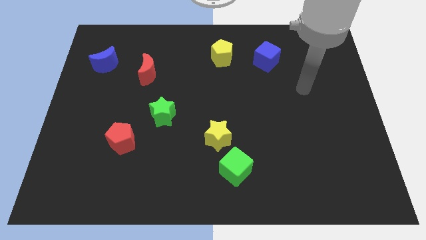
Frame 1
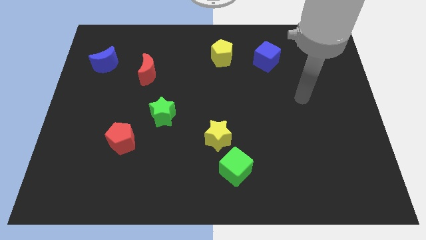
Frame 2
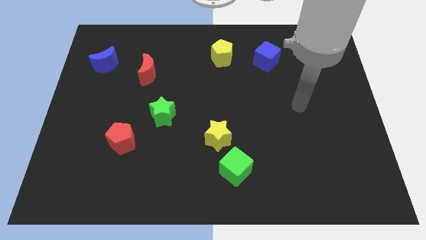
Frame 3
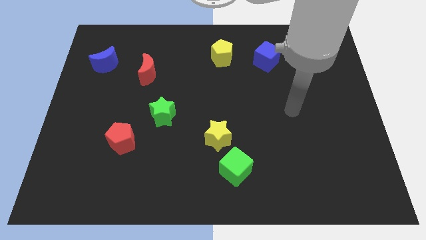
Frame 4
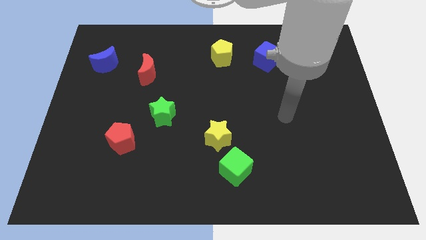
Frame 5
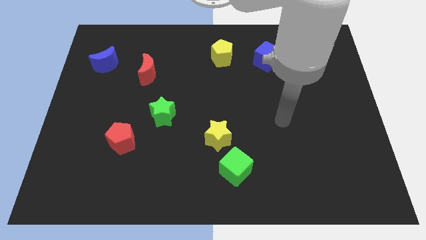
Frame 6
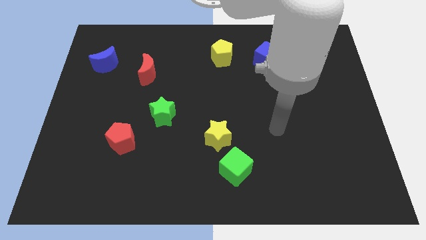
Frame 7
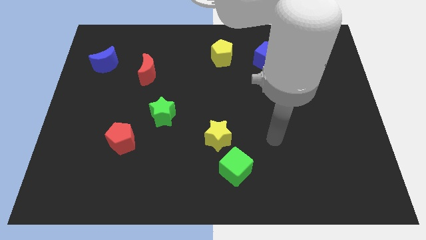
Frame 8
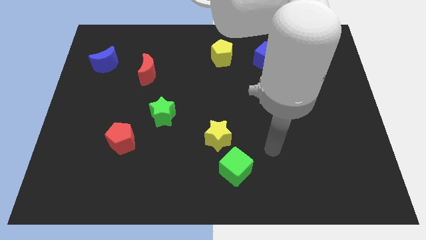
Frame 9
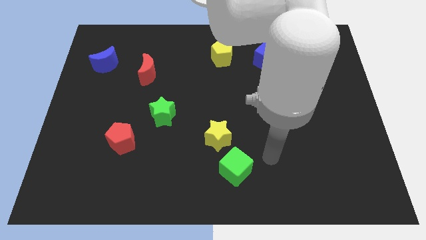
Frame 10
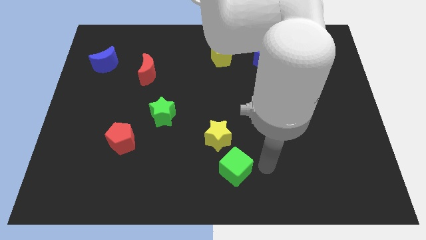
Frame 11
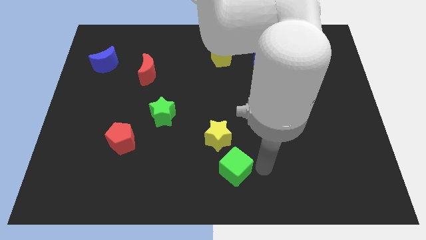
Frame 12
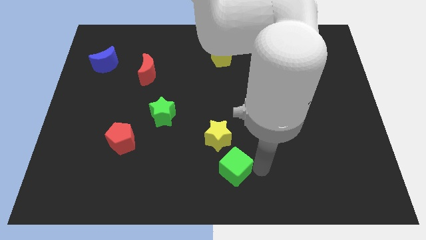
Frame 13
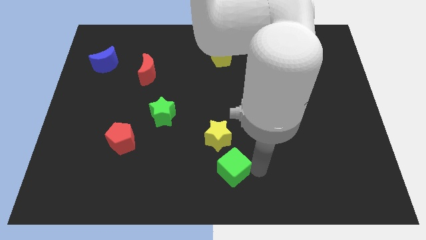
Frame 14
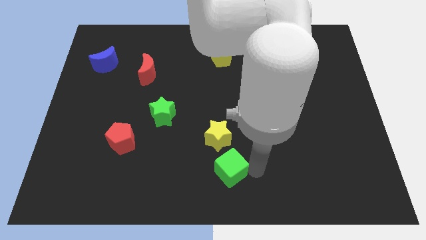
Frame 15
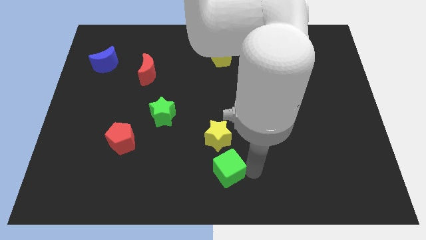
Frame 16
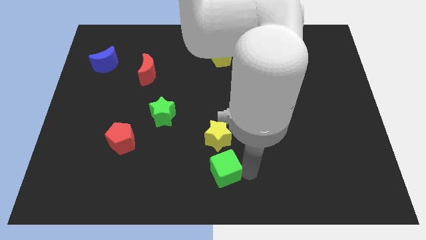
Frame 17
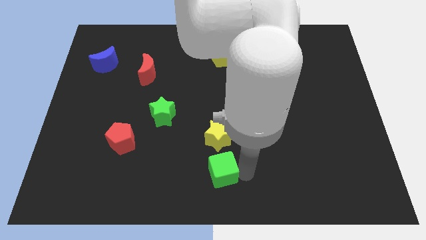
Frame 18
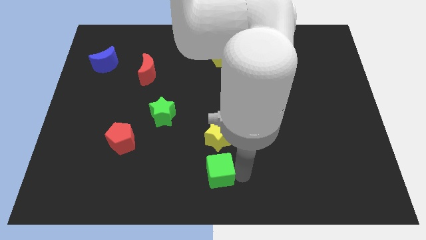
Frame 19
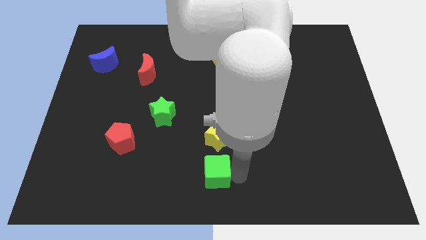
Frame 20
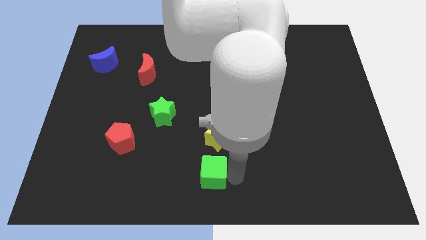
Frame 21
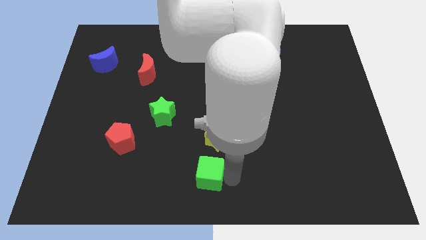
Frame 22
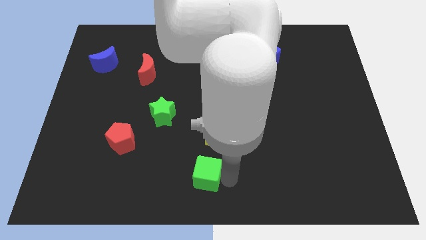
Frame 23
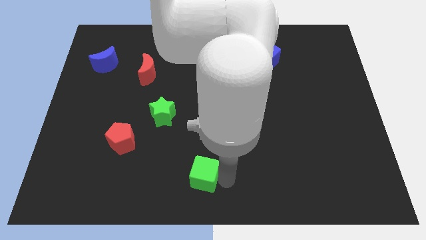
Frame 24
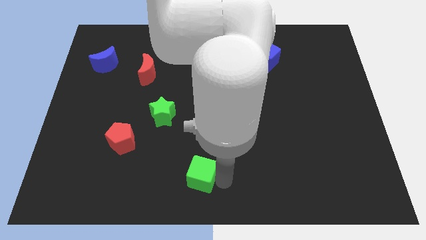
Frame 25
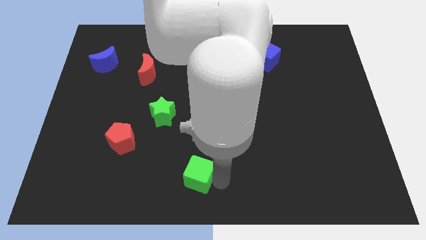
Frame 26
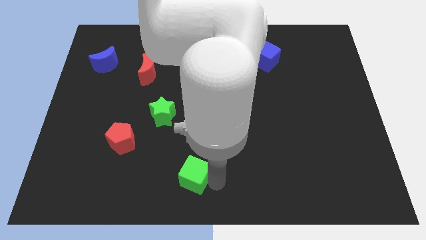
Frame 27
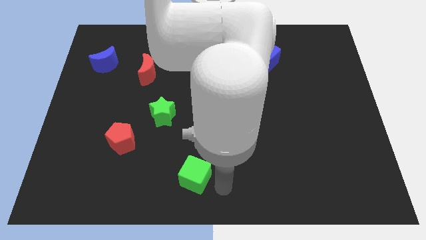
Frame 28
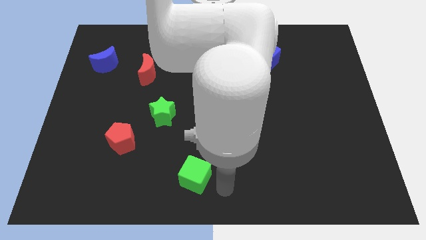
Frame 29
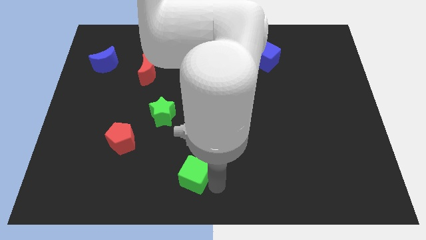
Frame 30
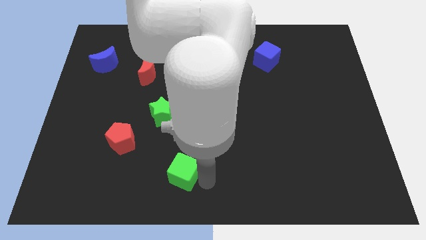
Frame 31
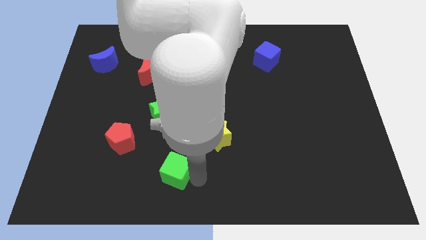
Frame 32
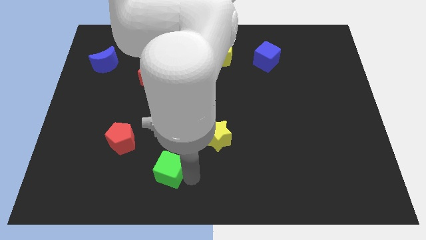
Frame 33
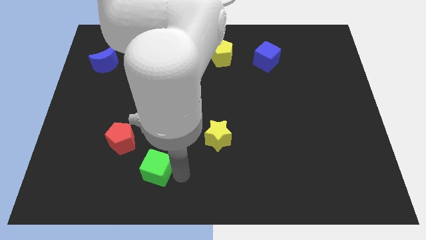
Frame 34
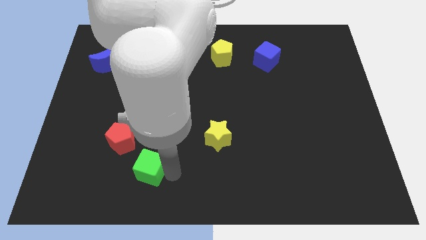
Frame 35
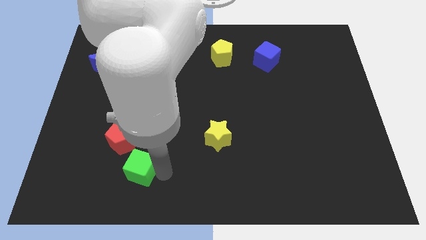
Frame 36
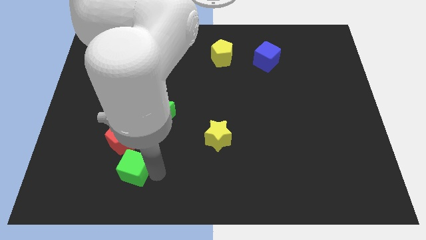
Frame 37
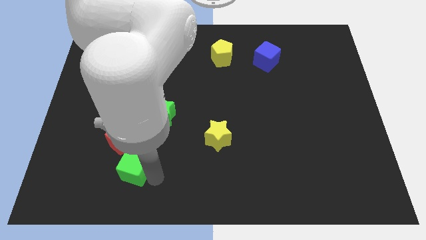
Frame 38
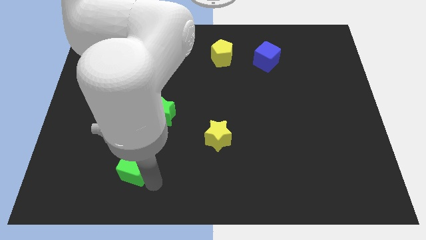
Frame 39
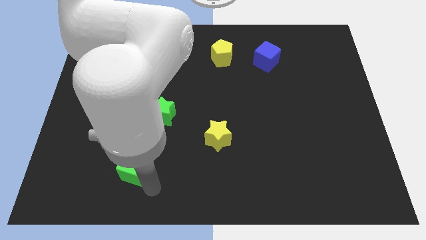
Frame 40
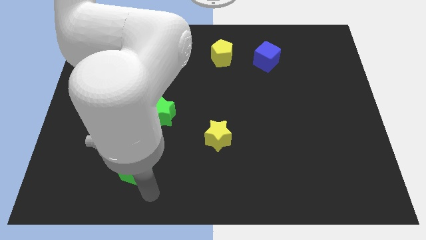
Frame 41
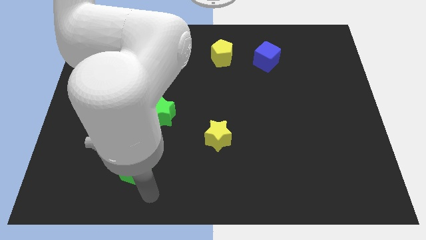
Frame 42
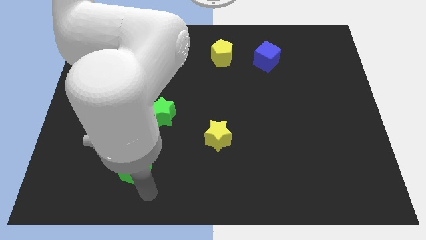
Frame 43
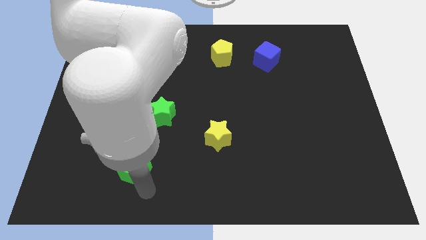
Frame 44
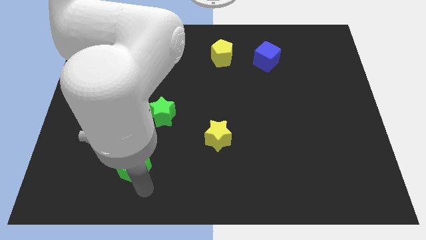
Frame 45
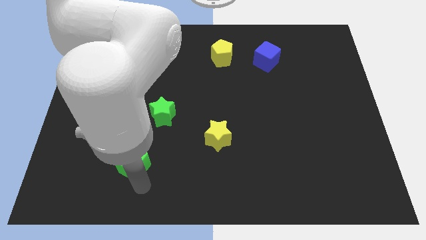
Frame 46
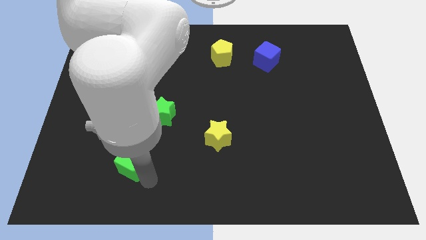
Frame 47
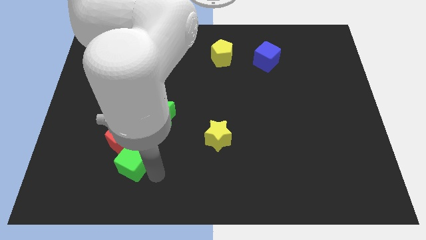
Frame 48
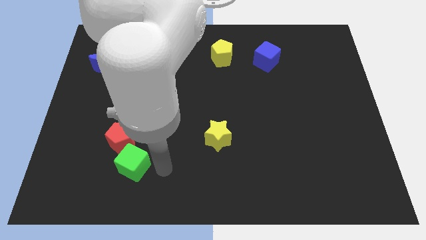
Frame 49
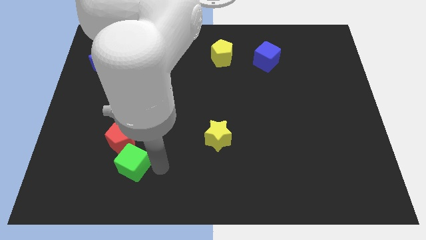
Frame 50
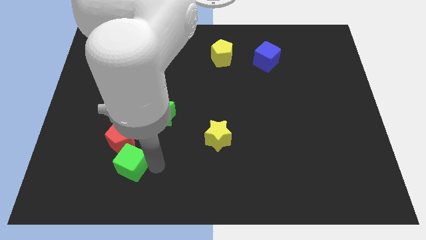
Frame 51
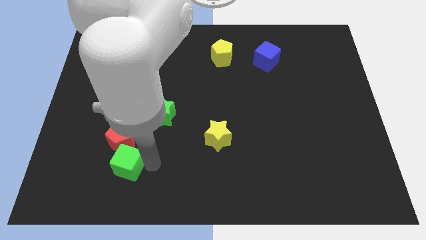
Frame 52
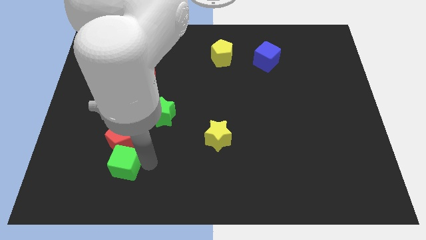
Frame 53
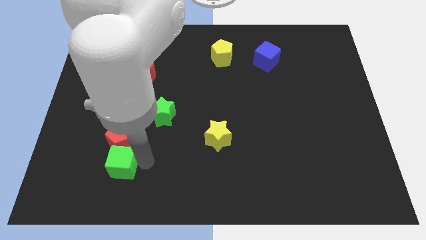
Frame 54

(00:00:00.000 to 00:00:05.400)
slide the green cube to the bottom left side of the red pentagon

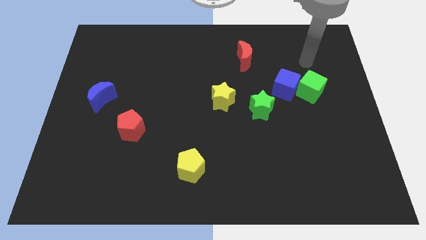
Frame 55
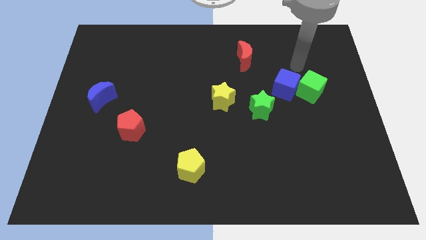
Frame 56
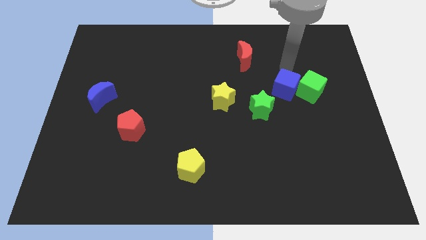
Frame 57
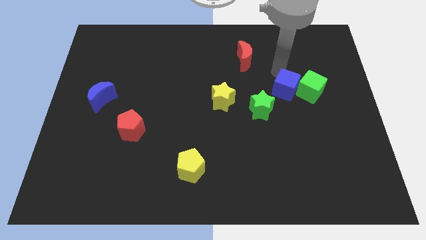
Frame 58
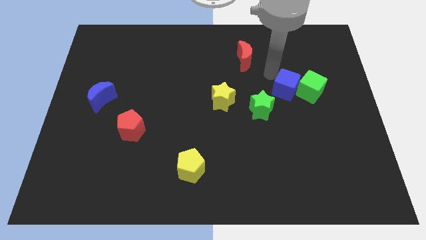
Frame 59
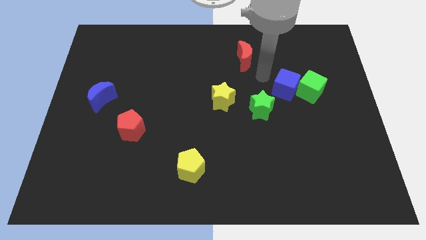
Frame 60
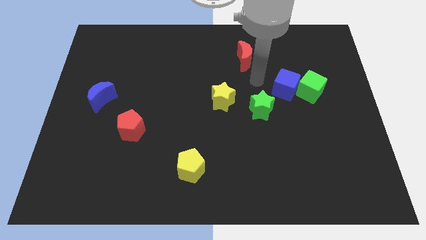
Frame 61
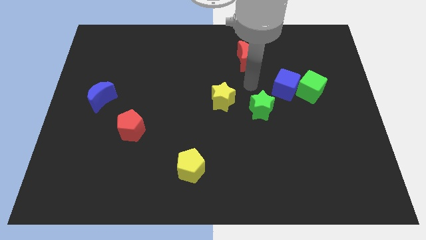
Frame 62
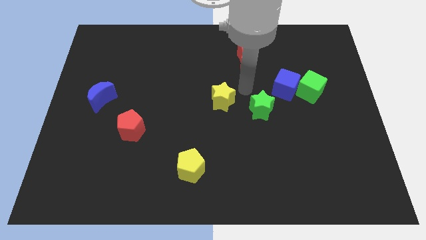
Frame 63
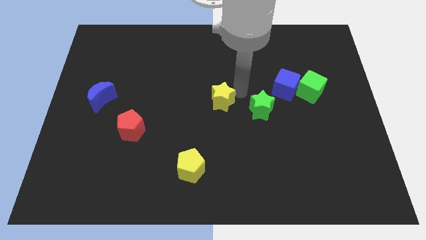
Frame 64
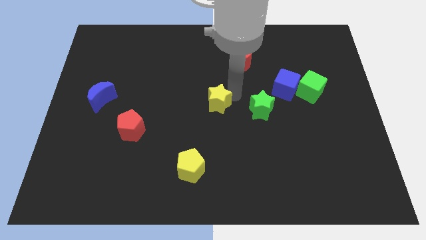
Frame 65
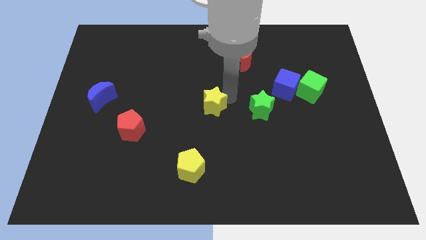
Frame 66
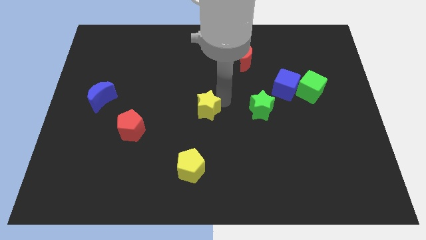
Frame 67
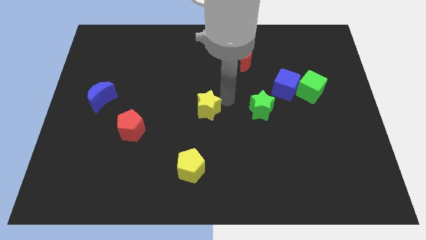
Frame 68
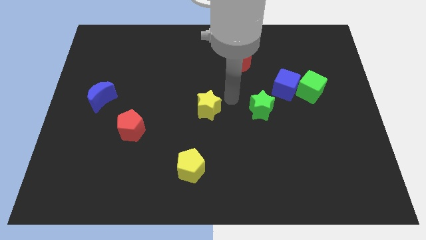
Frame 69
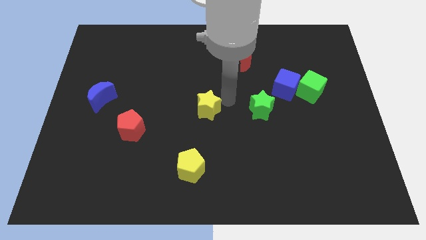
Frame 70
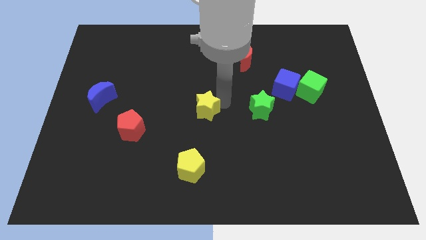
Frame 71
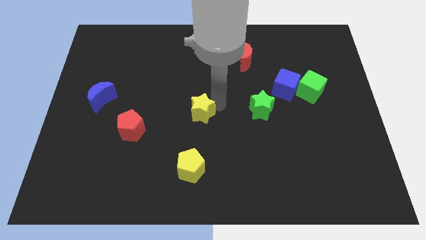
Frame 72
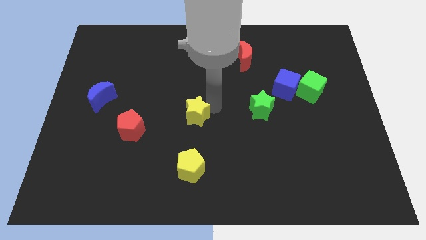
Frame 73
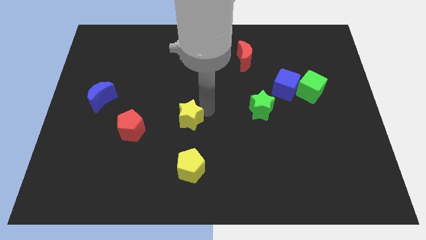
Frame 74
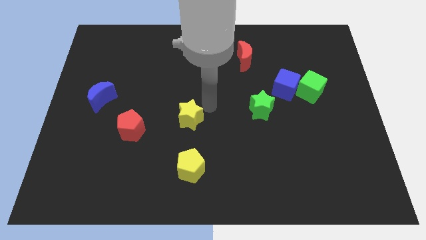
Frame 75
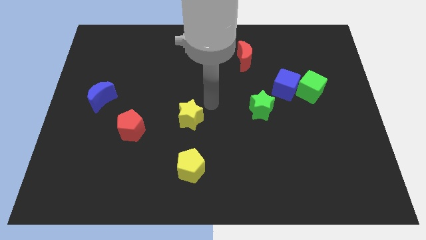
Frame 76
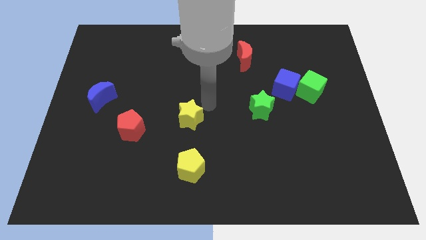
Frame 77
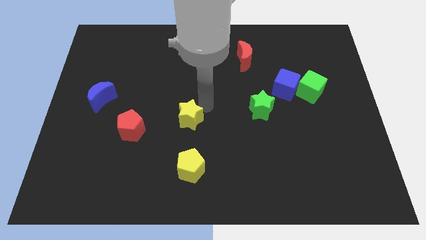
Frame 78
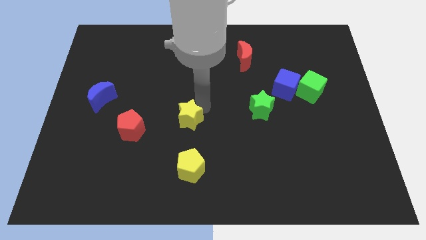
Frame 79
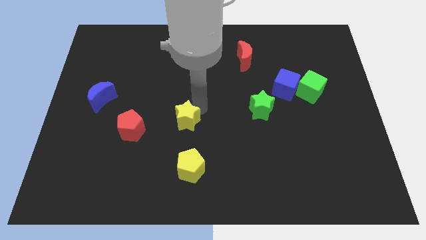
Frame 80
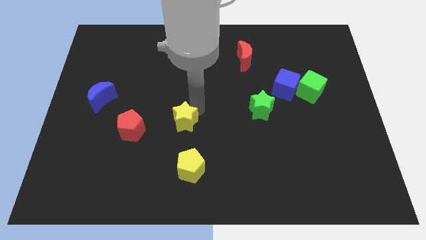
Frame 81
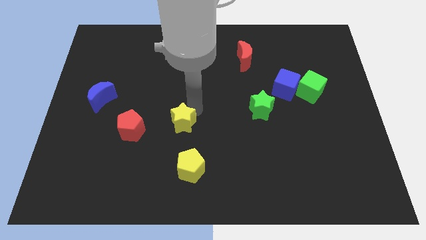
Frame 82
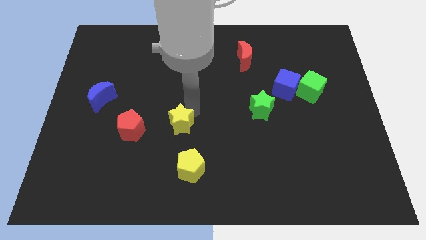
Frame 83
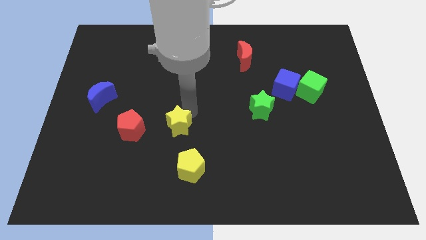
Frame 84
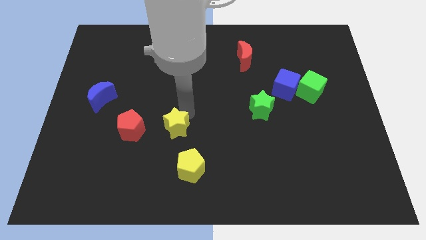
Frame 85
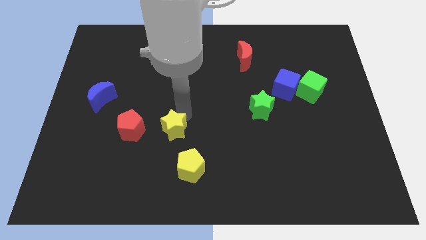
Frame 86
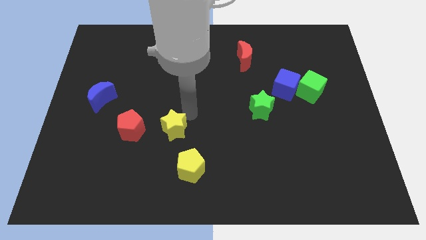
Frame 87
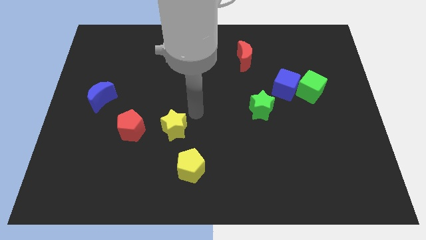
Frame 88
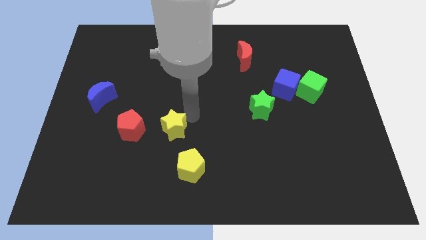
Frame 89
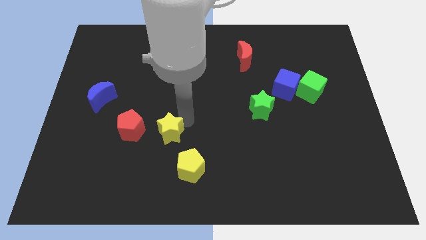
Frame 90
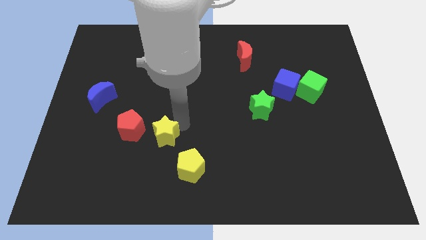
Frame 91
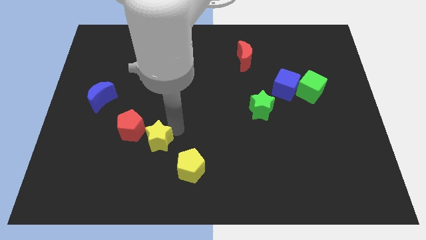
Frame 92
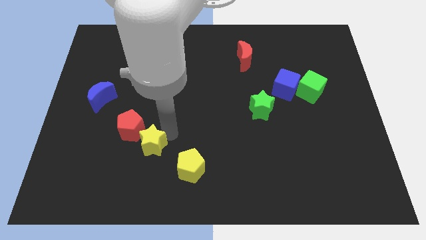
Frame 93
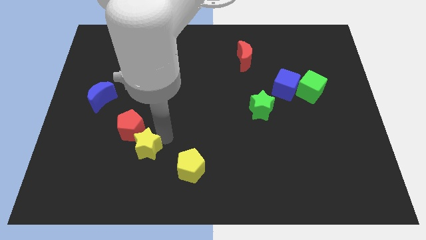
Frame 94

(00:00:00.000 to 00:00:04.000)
move the yellow star to the bottom of the red pentagon
